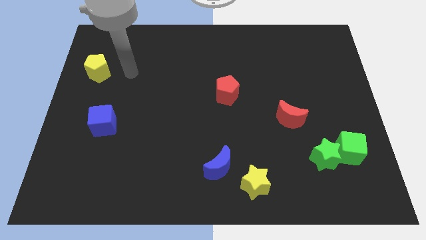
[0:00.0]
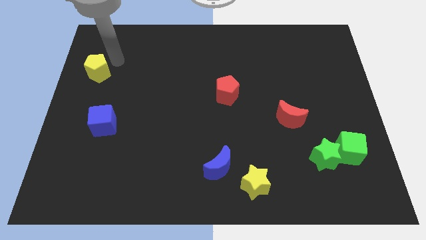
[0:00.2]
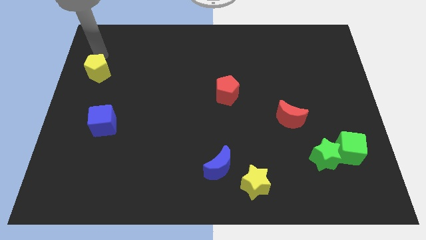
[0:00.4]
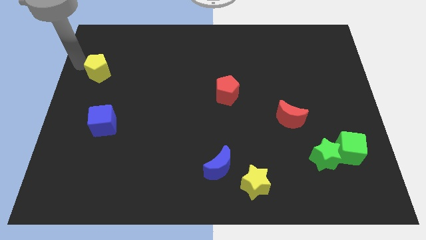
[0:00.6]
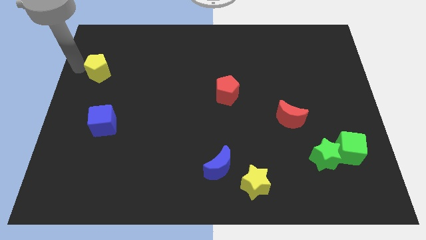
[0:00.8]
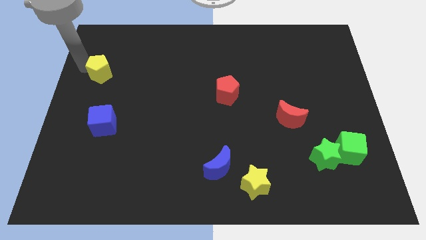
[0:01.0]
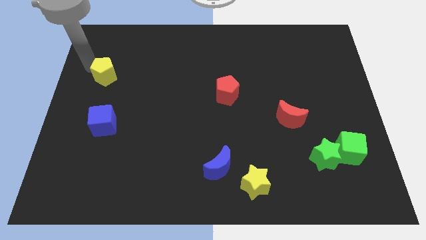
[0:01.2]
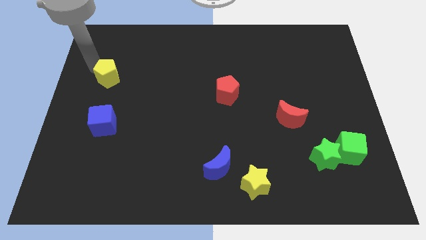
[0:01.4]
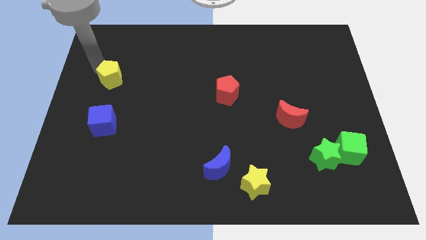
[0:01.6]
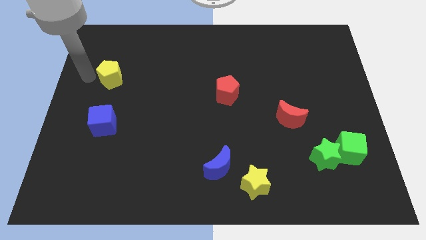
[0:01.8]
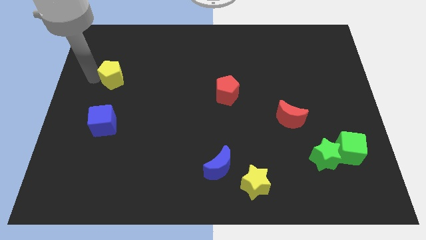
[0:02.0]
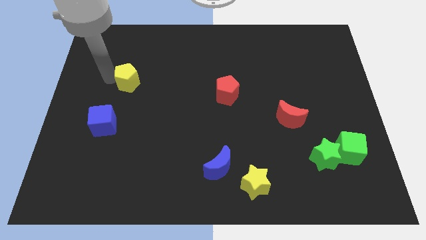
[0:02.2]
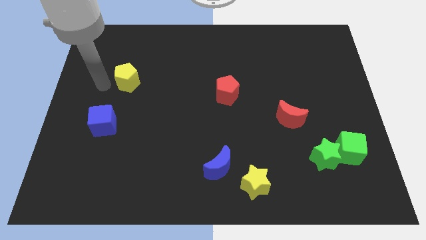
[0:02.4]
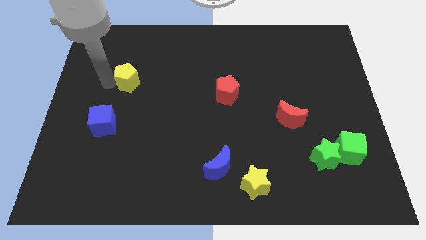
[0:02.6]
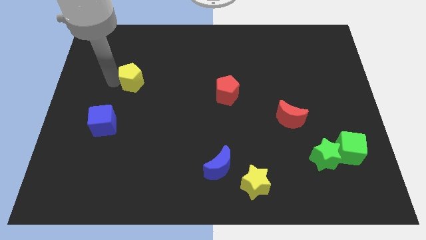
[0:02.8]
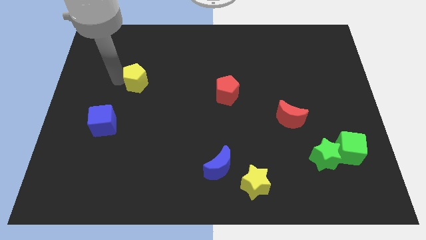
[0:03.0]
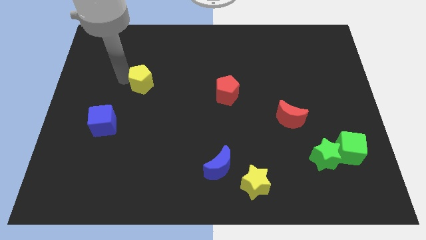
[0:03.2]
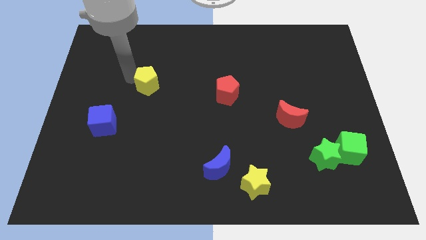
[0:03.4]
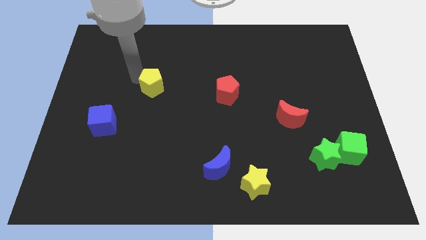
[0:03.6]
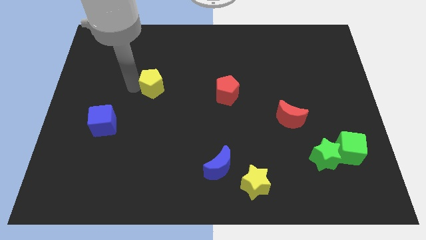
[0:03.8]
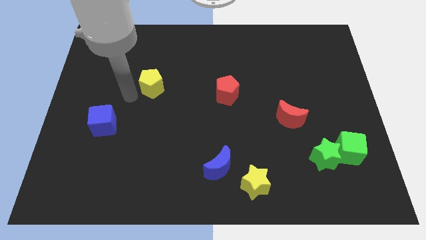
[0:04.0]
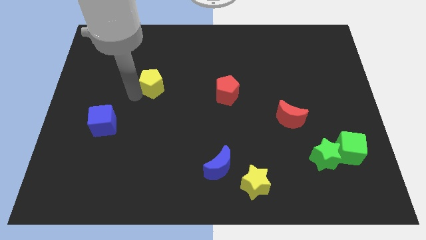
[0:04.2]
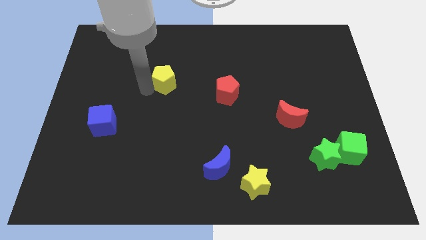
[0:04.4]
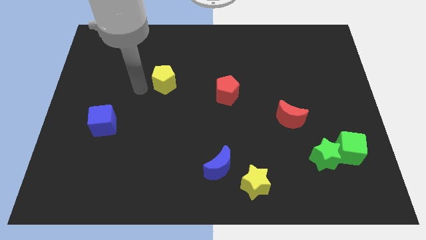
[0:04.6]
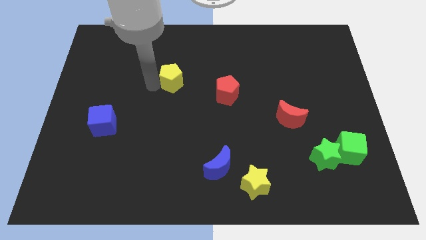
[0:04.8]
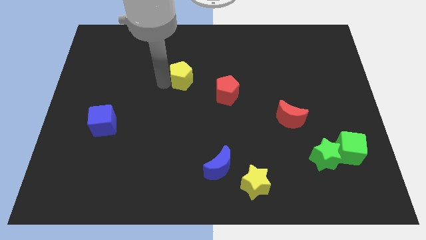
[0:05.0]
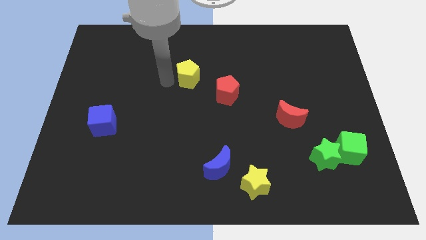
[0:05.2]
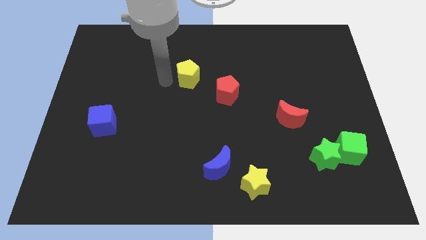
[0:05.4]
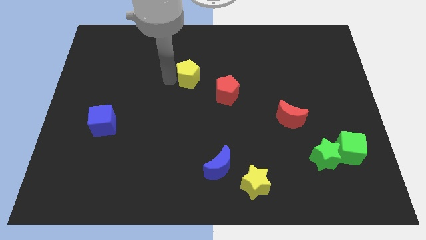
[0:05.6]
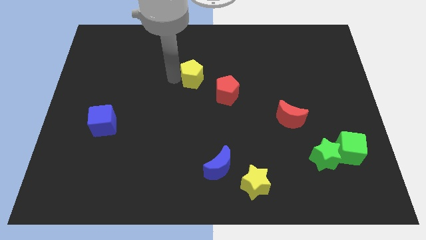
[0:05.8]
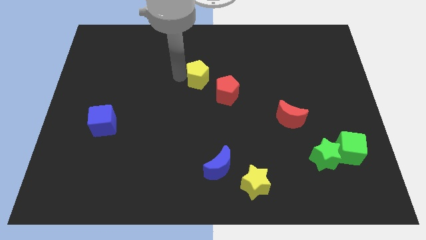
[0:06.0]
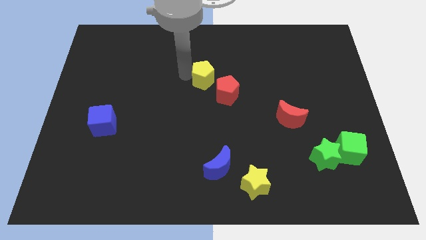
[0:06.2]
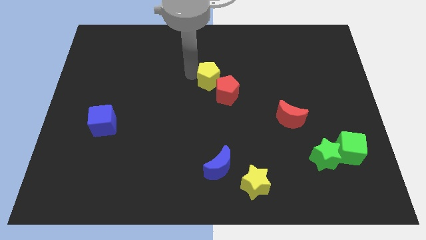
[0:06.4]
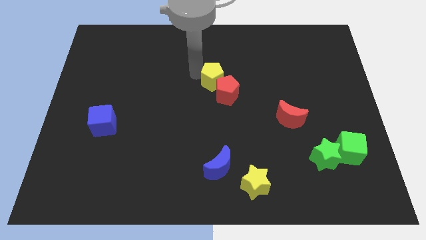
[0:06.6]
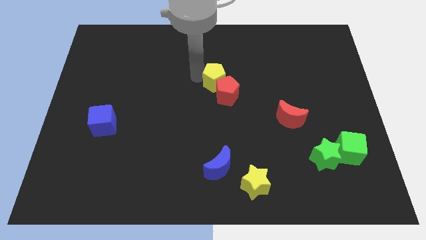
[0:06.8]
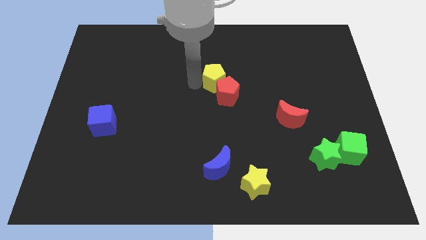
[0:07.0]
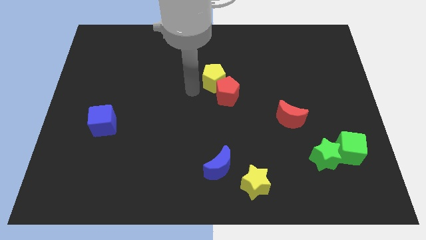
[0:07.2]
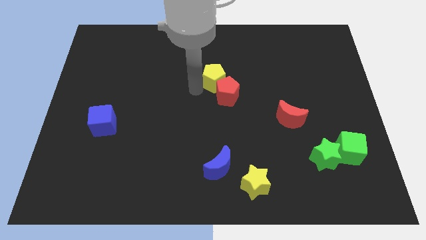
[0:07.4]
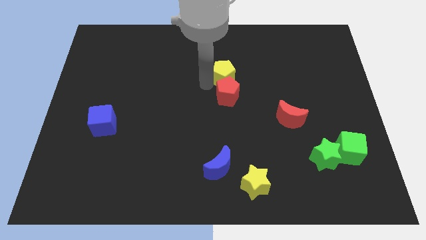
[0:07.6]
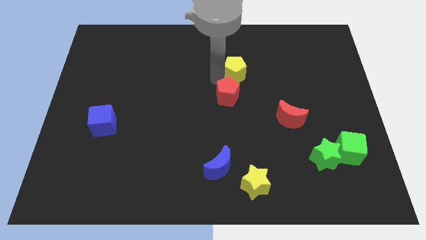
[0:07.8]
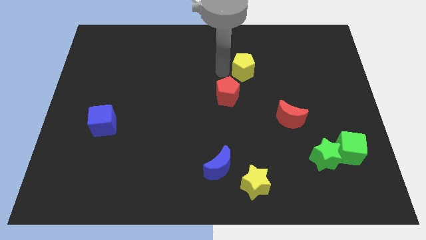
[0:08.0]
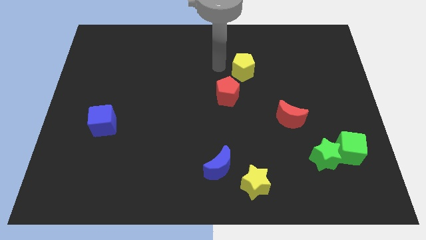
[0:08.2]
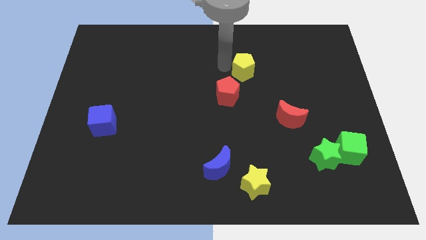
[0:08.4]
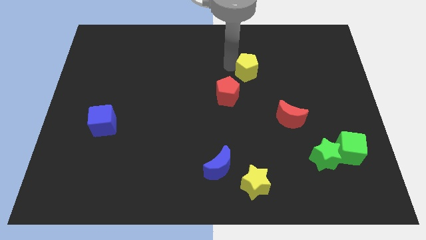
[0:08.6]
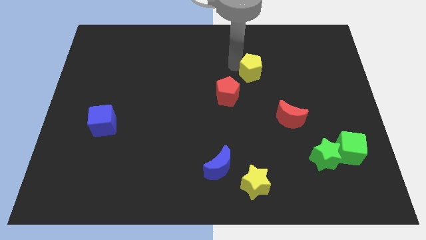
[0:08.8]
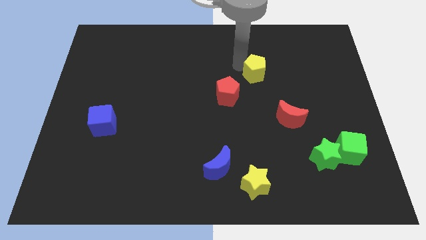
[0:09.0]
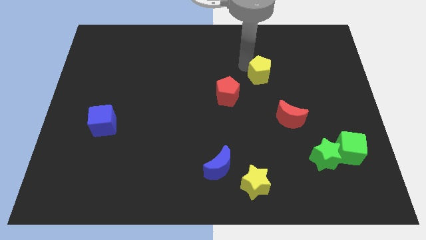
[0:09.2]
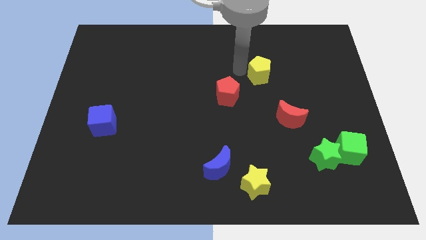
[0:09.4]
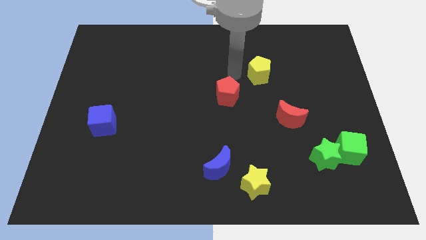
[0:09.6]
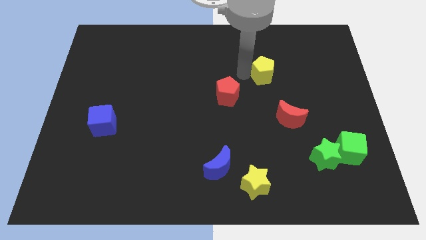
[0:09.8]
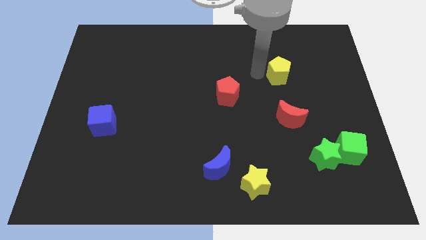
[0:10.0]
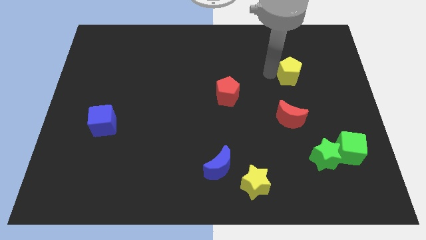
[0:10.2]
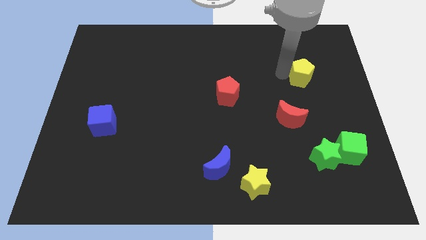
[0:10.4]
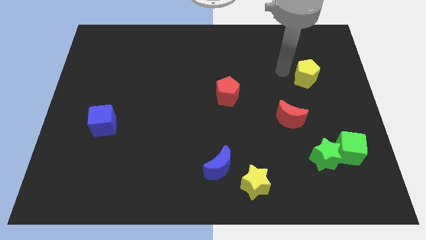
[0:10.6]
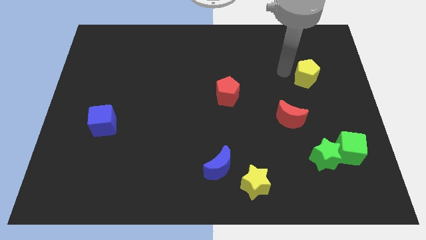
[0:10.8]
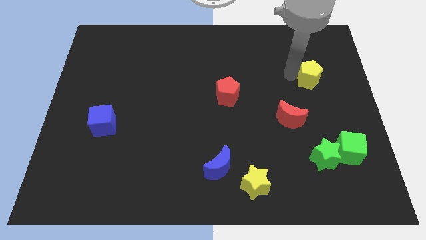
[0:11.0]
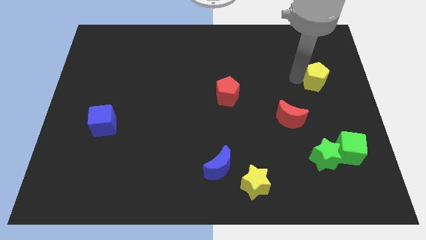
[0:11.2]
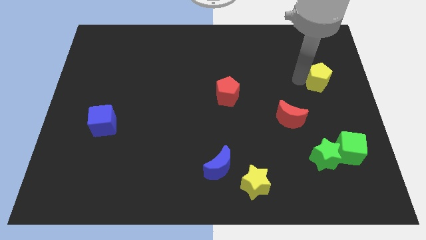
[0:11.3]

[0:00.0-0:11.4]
push the yellow pentagon to the right side
